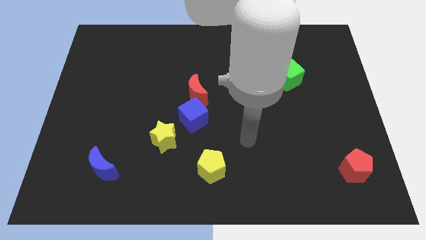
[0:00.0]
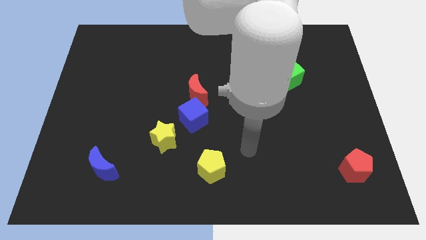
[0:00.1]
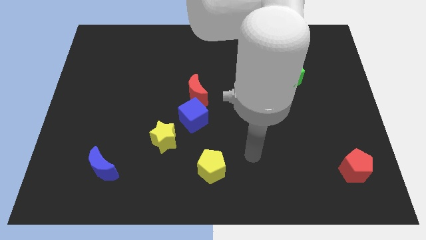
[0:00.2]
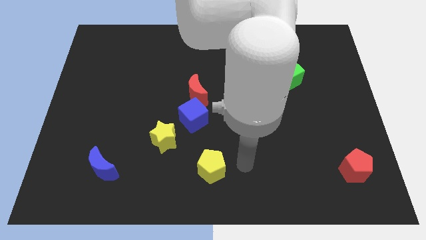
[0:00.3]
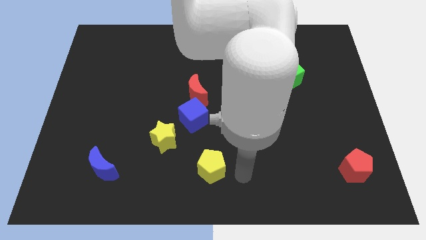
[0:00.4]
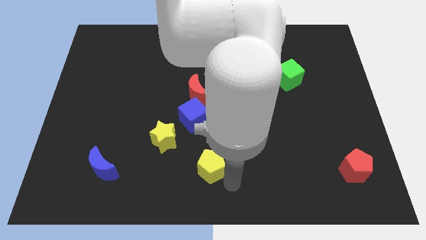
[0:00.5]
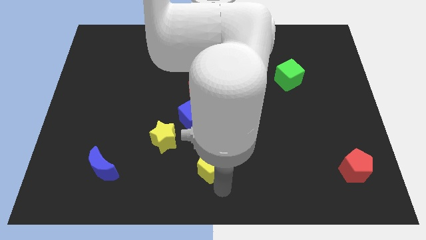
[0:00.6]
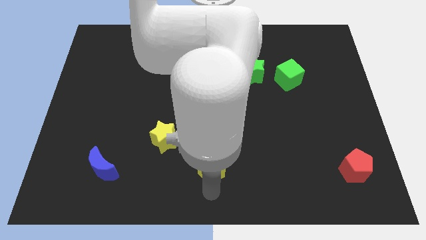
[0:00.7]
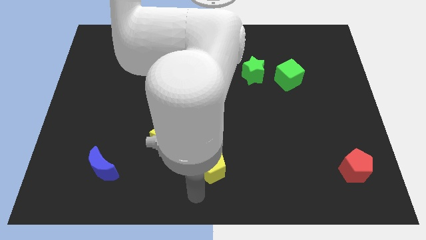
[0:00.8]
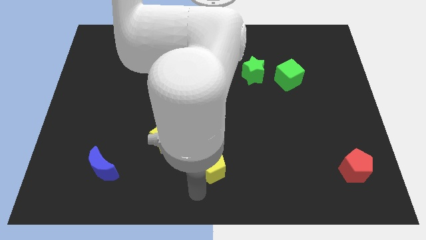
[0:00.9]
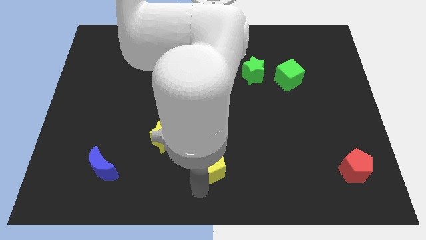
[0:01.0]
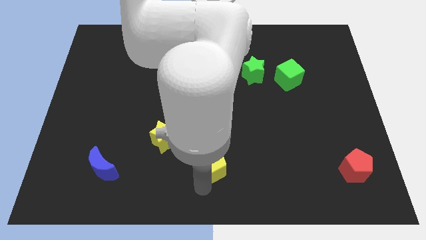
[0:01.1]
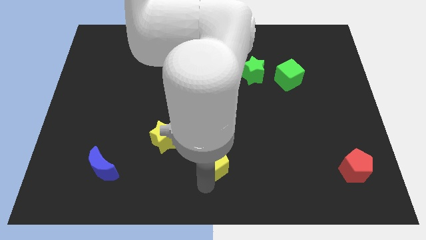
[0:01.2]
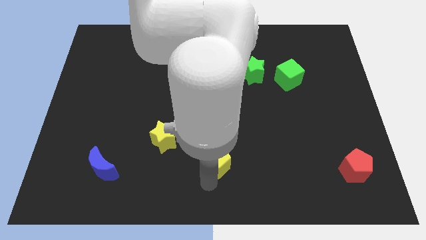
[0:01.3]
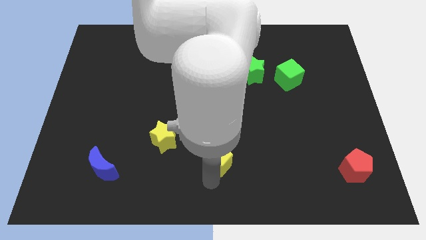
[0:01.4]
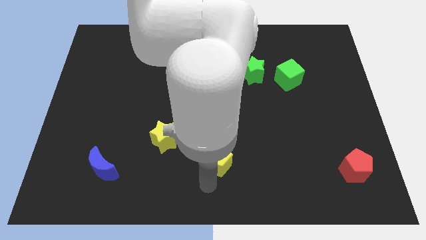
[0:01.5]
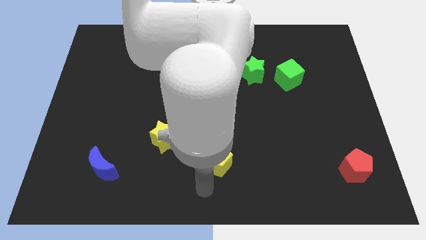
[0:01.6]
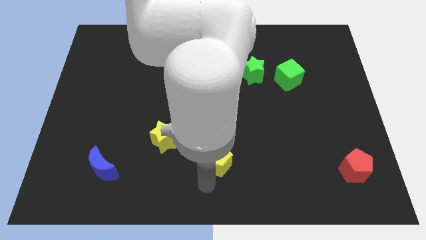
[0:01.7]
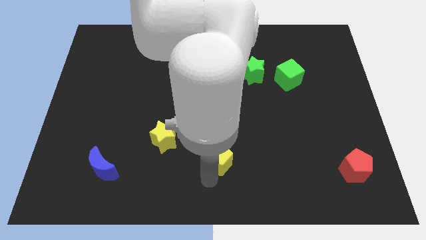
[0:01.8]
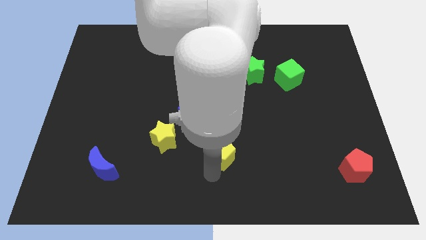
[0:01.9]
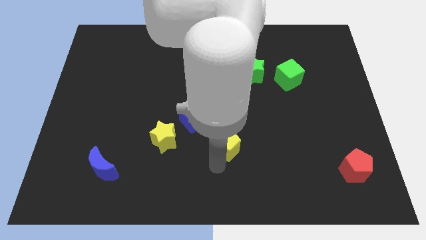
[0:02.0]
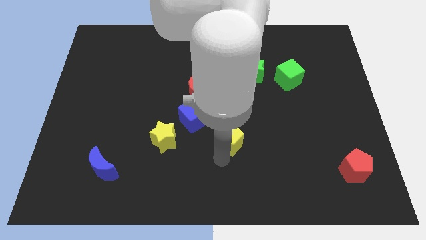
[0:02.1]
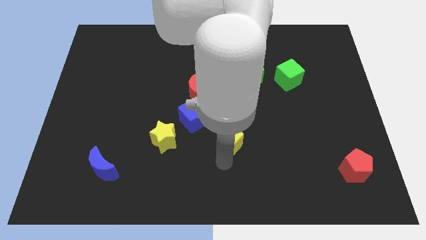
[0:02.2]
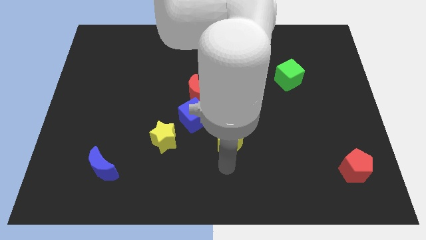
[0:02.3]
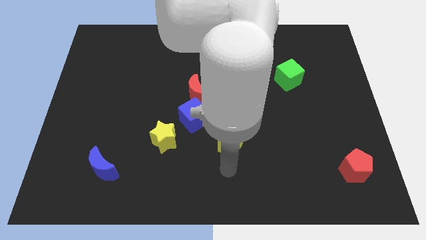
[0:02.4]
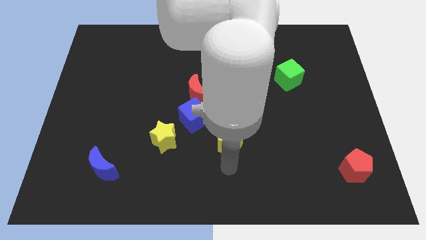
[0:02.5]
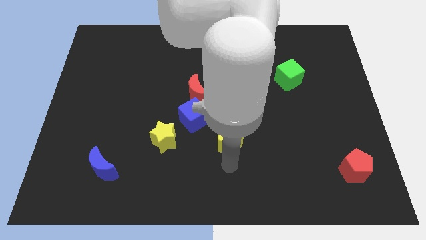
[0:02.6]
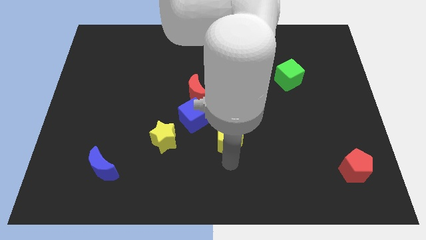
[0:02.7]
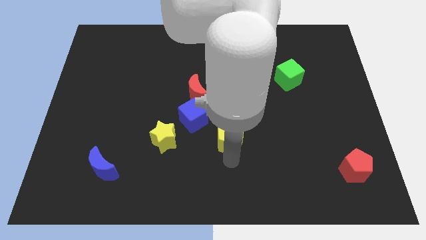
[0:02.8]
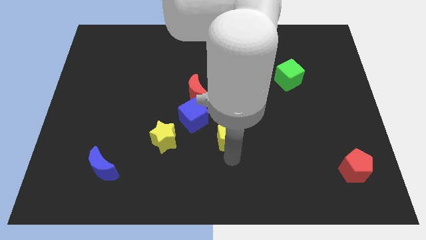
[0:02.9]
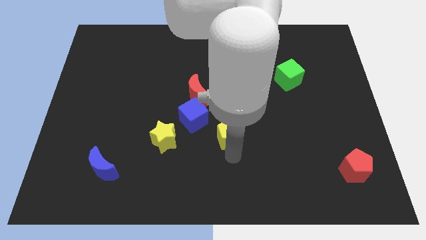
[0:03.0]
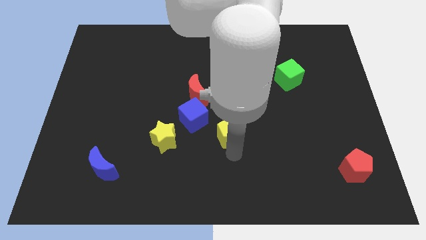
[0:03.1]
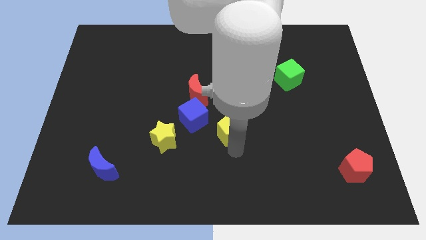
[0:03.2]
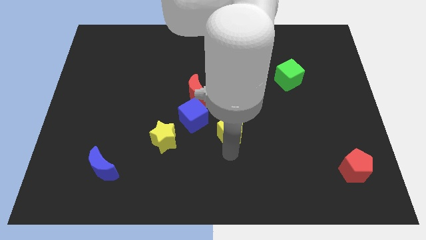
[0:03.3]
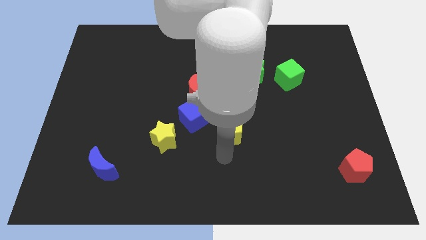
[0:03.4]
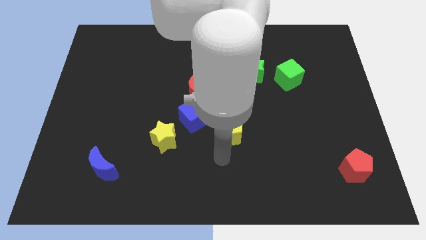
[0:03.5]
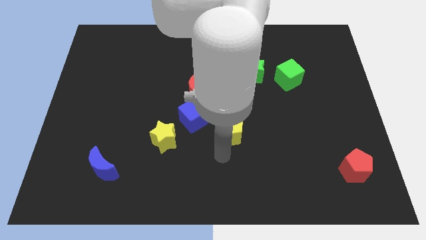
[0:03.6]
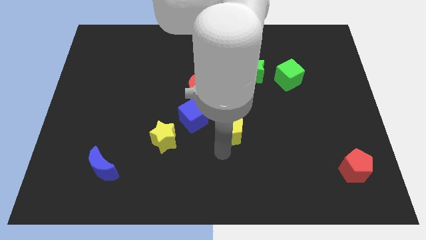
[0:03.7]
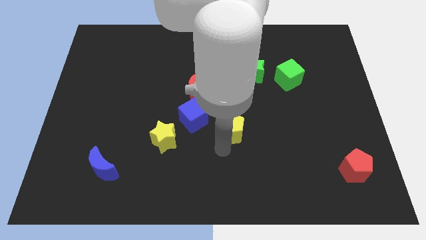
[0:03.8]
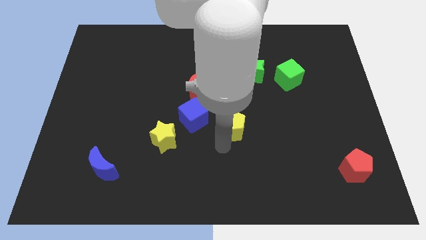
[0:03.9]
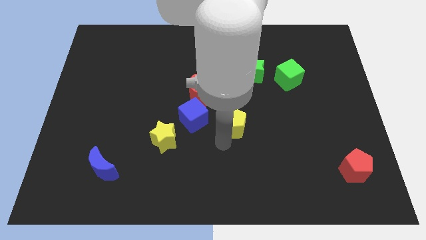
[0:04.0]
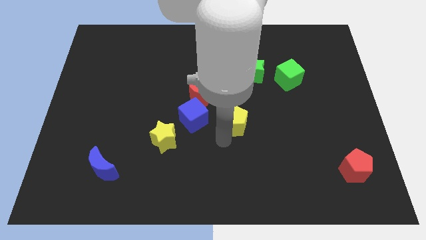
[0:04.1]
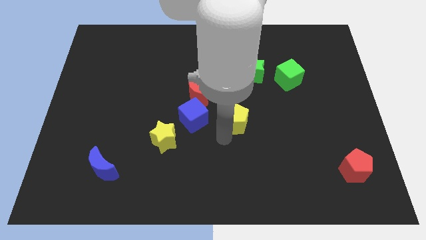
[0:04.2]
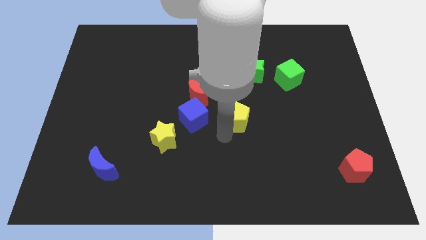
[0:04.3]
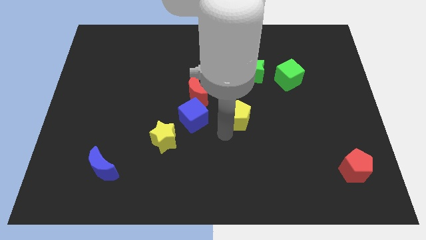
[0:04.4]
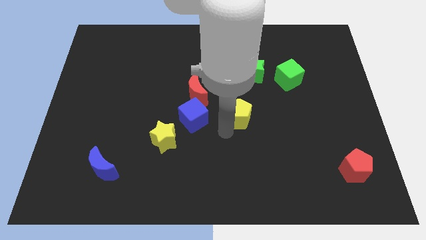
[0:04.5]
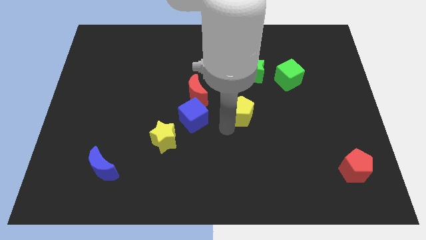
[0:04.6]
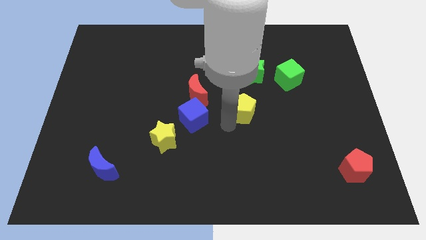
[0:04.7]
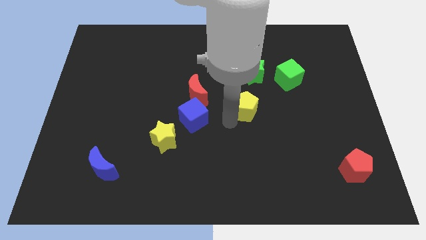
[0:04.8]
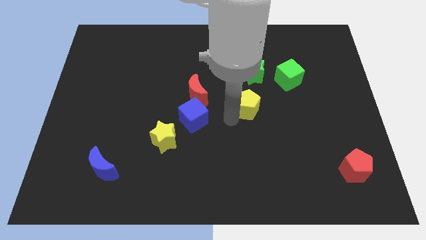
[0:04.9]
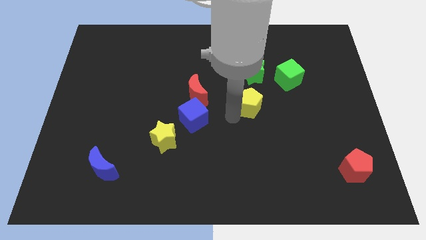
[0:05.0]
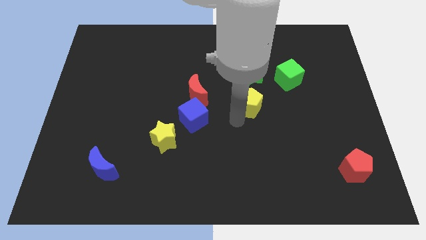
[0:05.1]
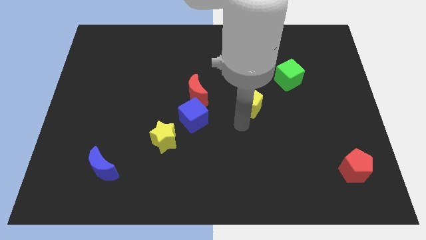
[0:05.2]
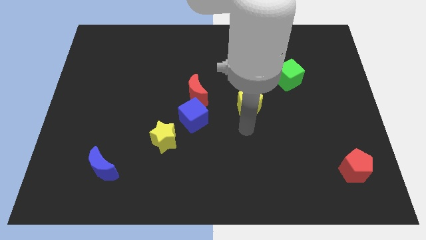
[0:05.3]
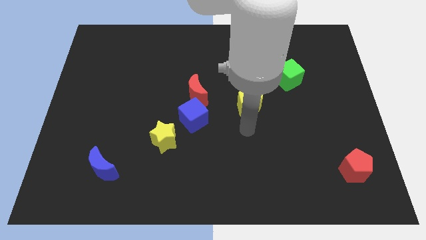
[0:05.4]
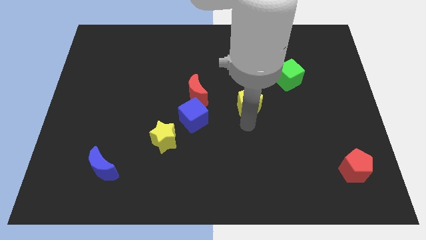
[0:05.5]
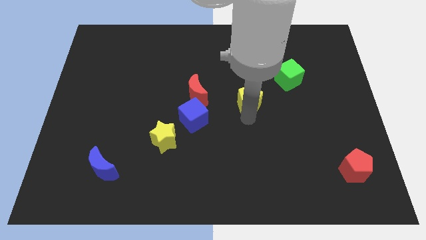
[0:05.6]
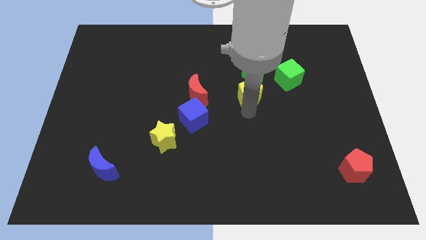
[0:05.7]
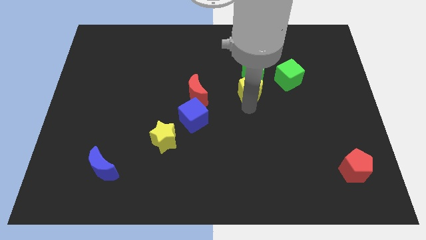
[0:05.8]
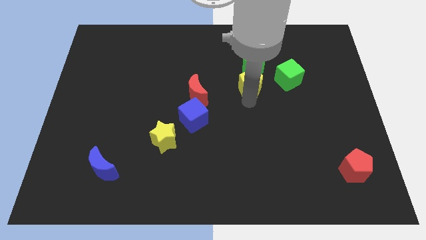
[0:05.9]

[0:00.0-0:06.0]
move the yellow pentagon towards the green star

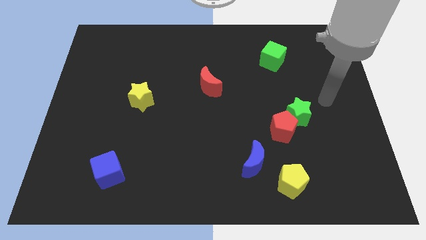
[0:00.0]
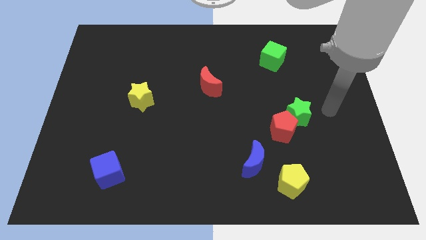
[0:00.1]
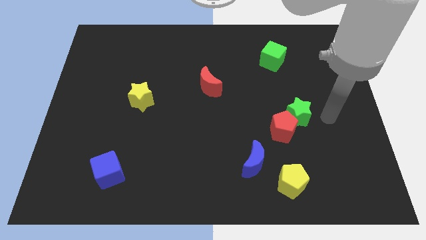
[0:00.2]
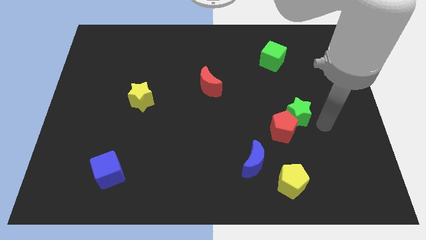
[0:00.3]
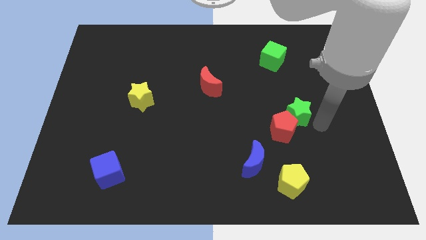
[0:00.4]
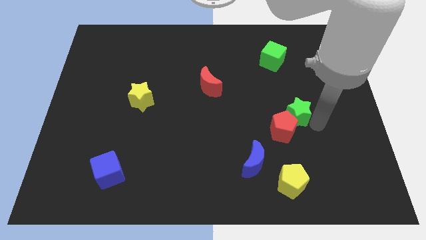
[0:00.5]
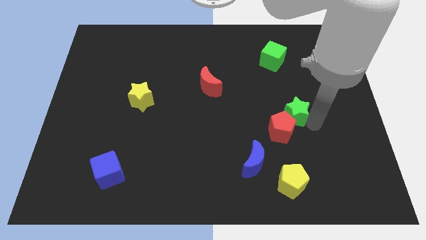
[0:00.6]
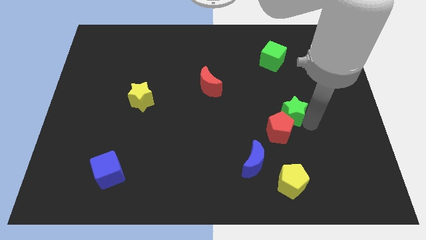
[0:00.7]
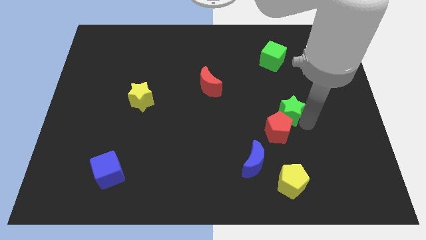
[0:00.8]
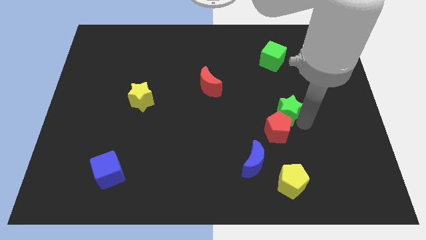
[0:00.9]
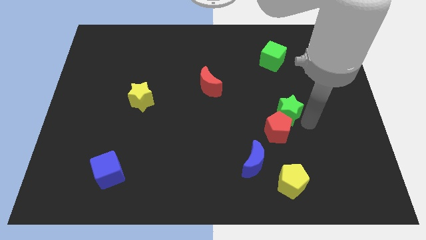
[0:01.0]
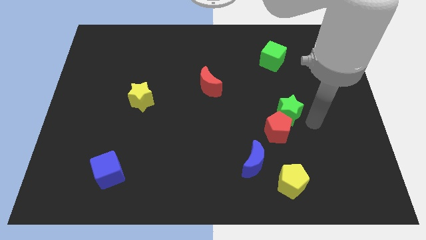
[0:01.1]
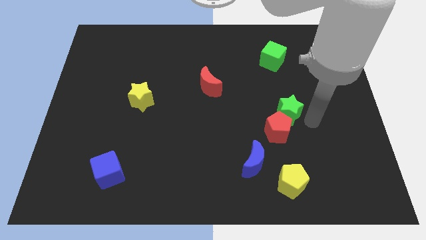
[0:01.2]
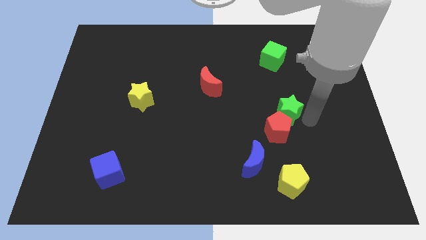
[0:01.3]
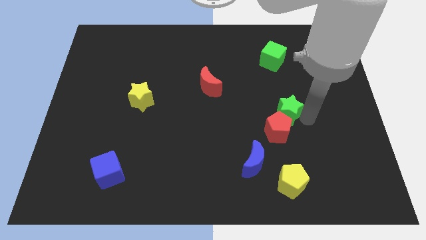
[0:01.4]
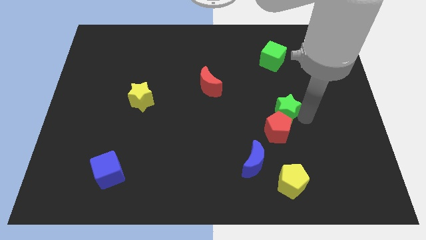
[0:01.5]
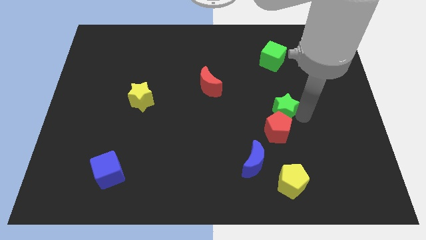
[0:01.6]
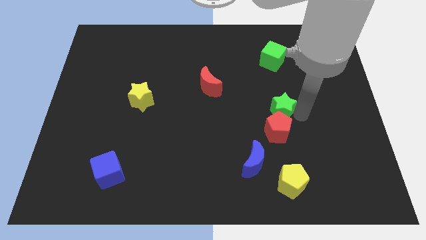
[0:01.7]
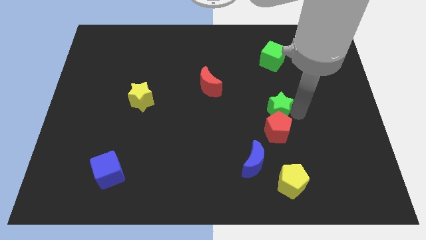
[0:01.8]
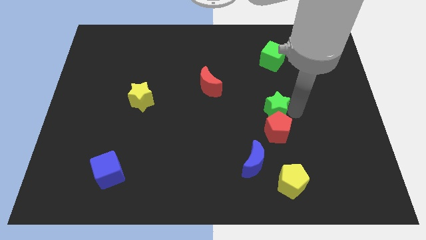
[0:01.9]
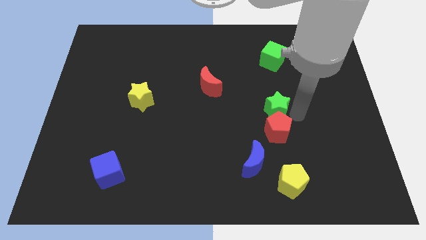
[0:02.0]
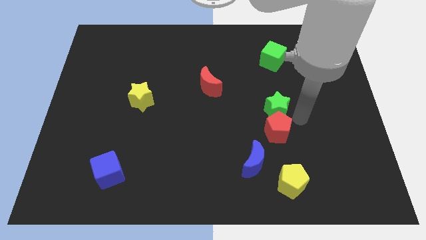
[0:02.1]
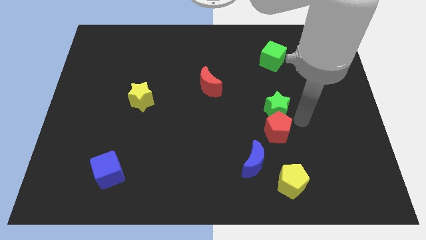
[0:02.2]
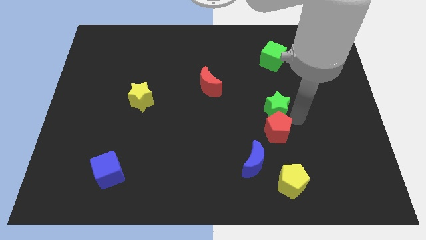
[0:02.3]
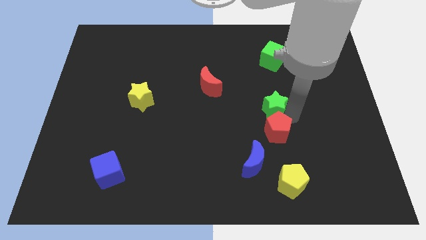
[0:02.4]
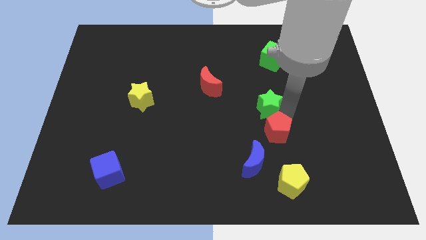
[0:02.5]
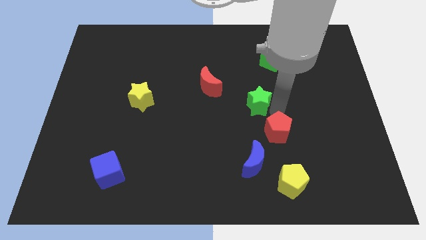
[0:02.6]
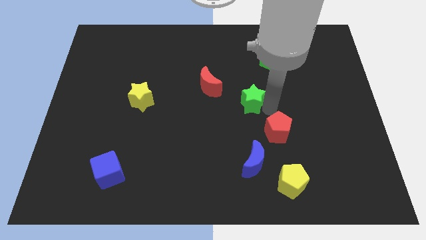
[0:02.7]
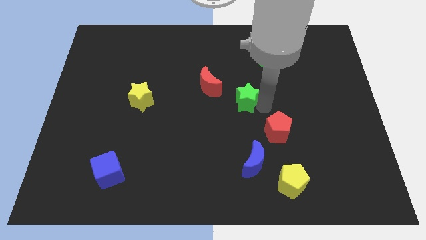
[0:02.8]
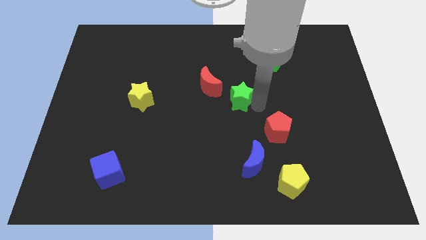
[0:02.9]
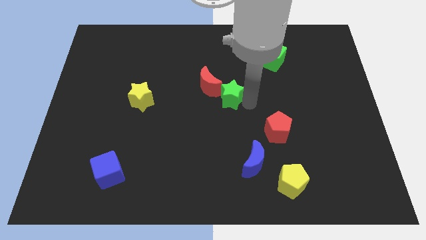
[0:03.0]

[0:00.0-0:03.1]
move the green star towards the red moon
